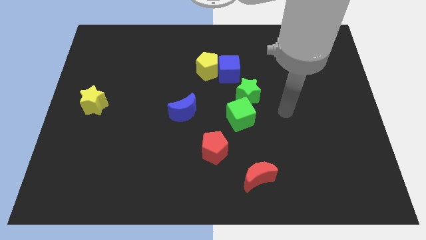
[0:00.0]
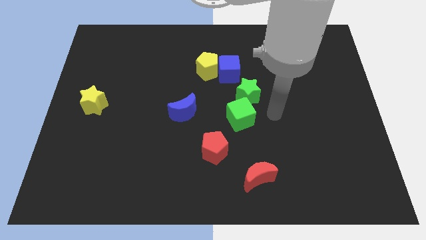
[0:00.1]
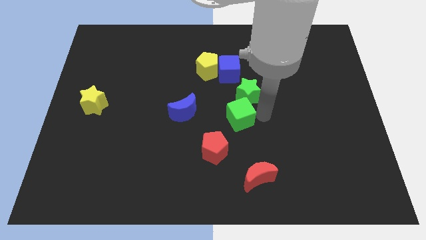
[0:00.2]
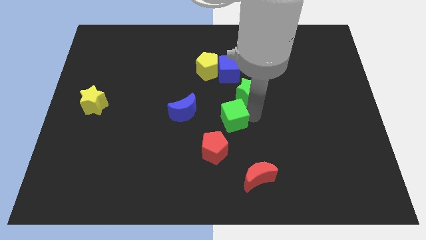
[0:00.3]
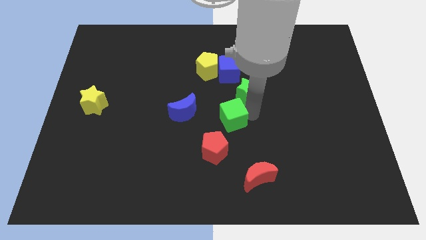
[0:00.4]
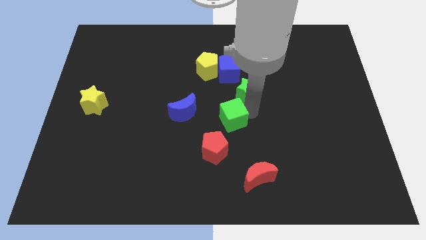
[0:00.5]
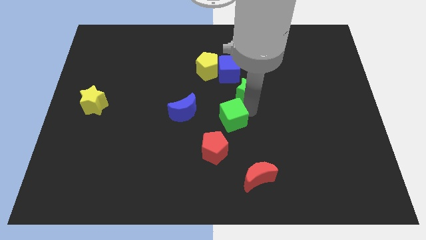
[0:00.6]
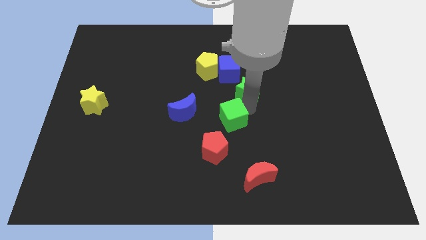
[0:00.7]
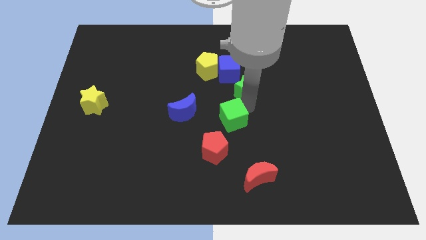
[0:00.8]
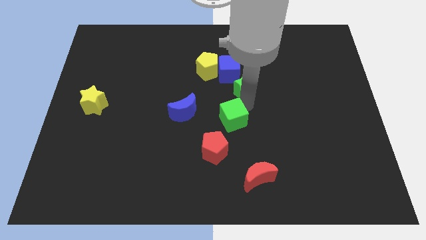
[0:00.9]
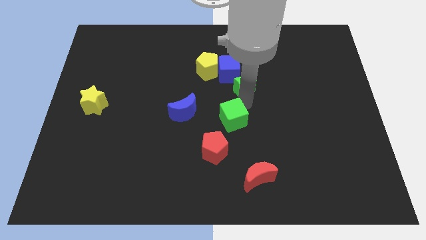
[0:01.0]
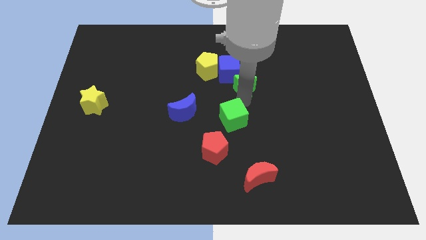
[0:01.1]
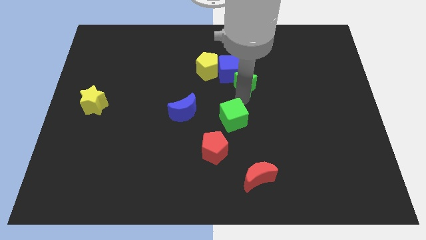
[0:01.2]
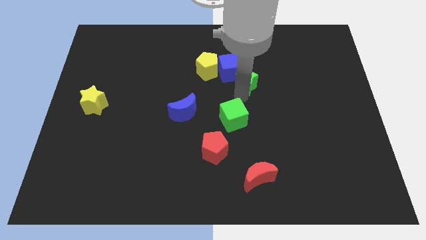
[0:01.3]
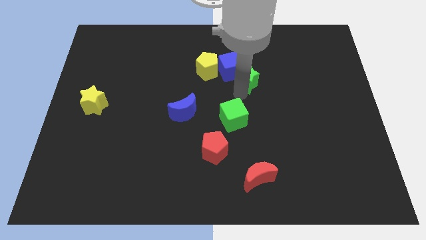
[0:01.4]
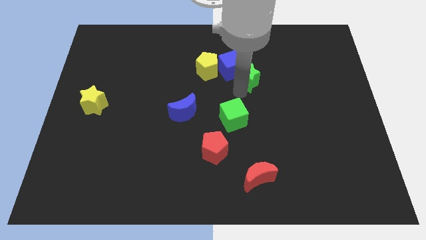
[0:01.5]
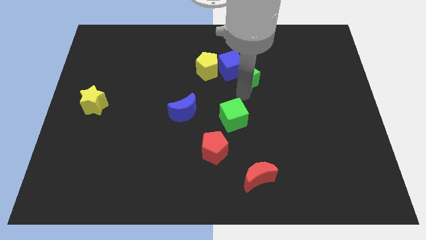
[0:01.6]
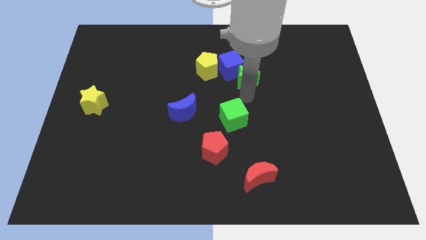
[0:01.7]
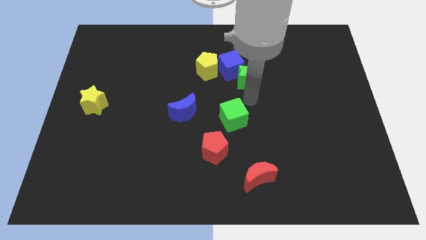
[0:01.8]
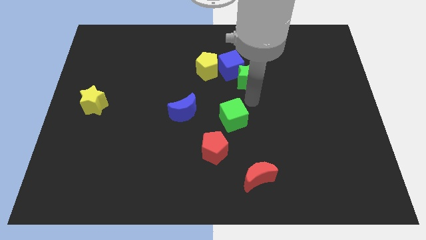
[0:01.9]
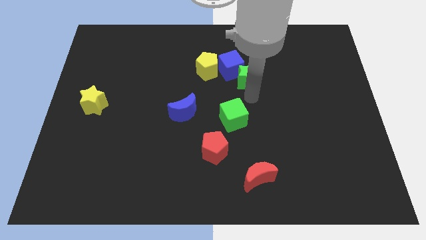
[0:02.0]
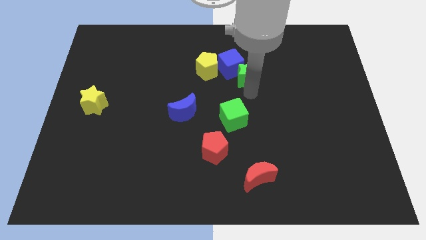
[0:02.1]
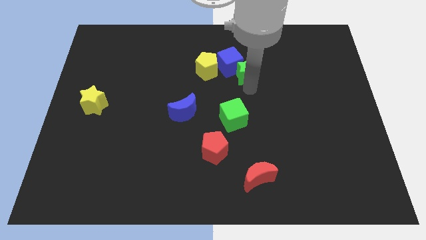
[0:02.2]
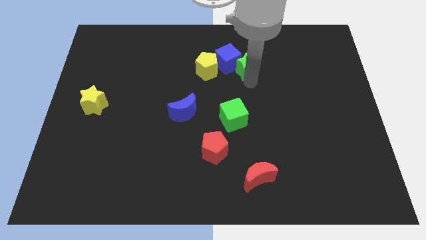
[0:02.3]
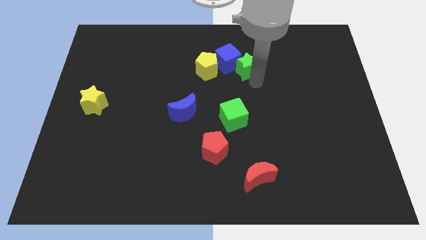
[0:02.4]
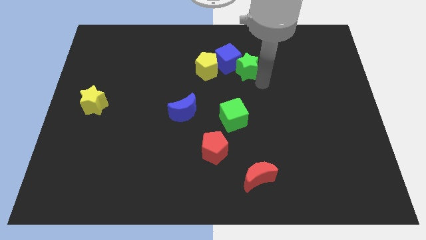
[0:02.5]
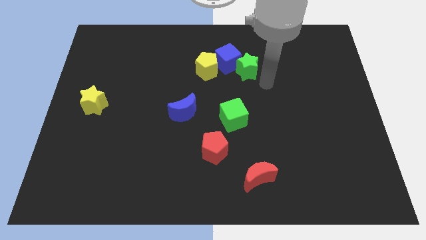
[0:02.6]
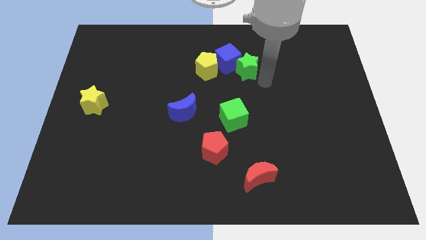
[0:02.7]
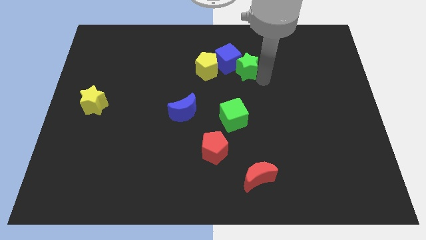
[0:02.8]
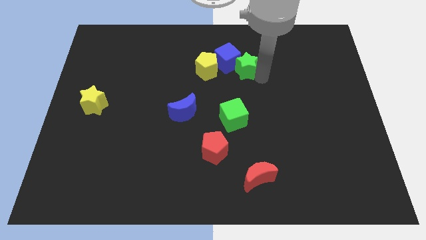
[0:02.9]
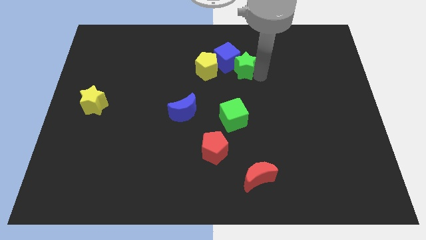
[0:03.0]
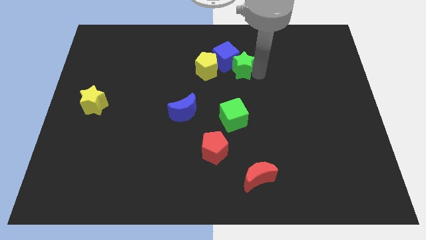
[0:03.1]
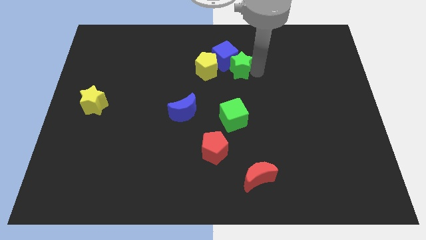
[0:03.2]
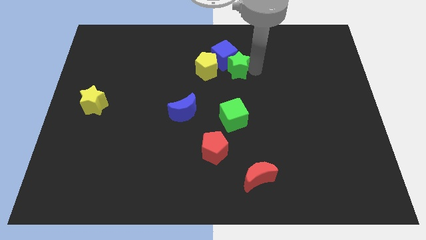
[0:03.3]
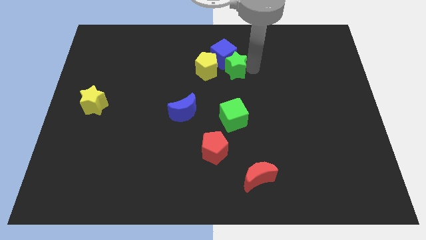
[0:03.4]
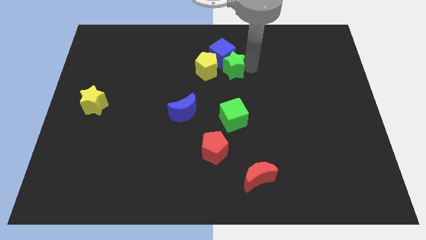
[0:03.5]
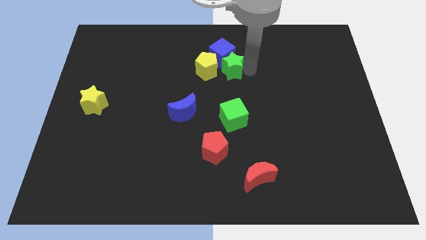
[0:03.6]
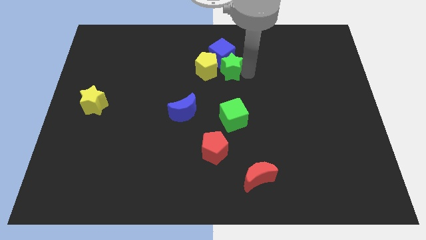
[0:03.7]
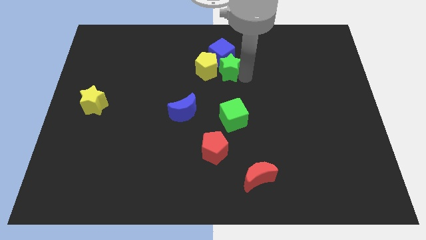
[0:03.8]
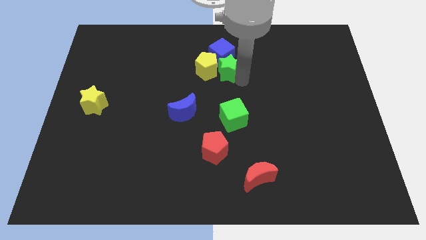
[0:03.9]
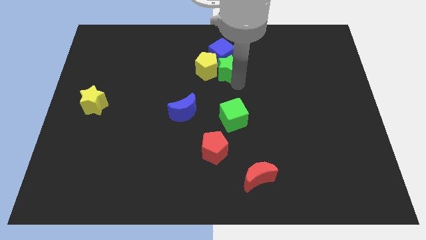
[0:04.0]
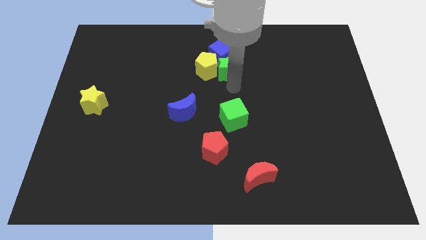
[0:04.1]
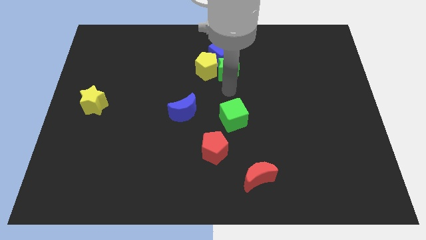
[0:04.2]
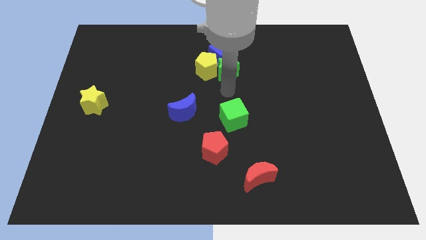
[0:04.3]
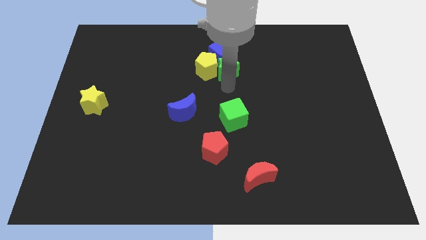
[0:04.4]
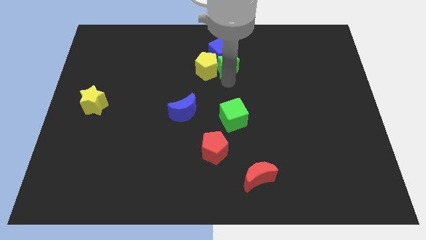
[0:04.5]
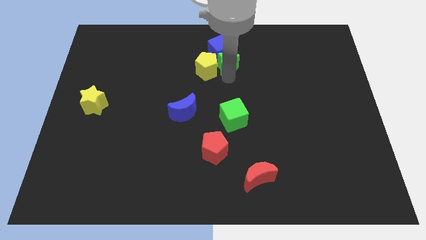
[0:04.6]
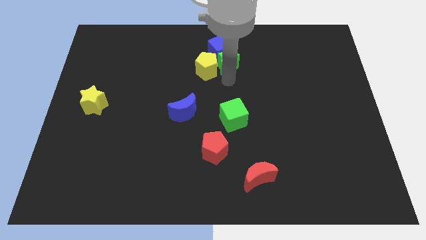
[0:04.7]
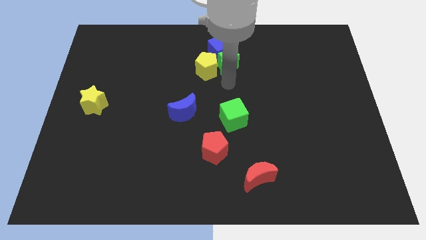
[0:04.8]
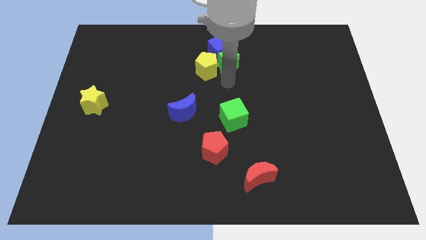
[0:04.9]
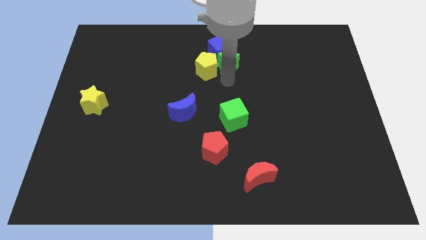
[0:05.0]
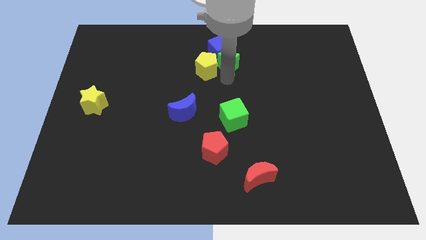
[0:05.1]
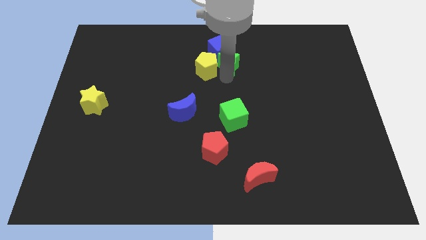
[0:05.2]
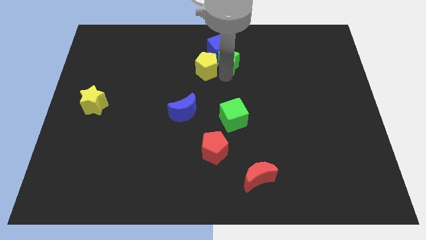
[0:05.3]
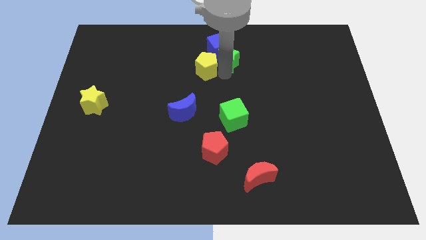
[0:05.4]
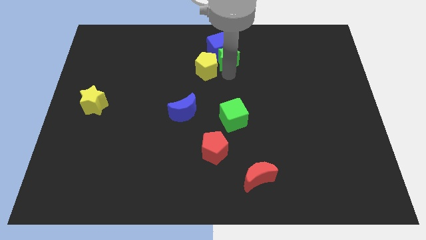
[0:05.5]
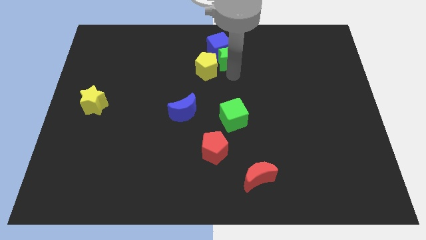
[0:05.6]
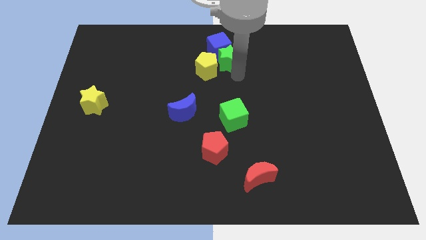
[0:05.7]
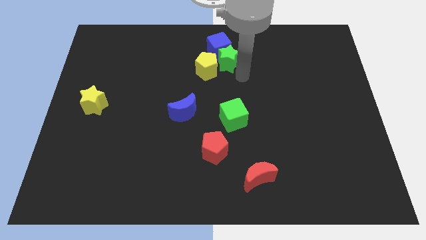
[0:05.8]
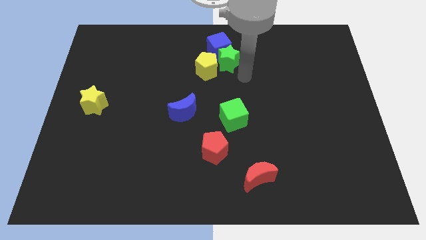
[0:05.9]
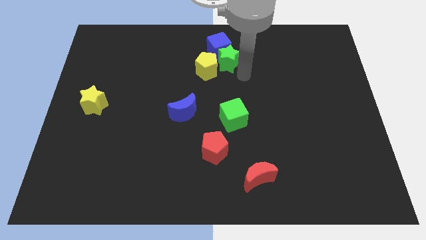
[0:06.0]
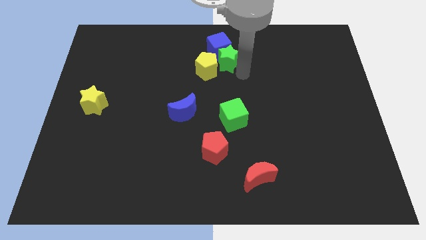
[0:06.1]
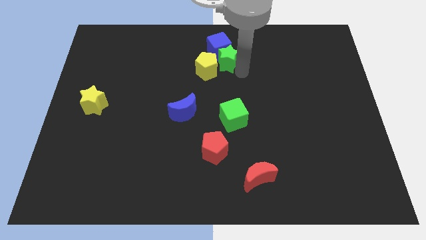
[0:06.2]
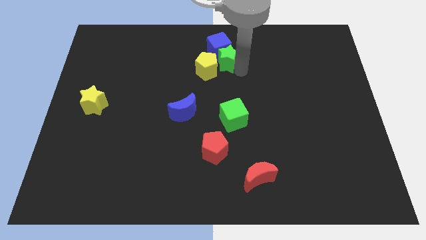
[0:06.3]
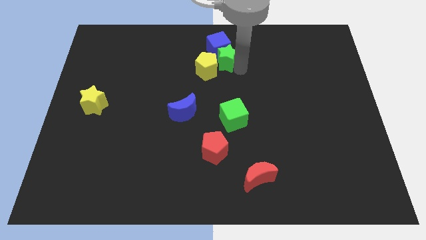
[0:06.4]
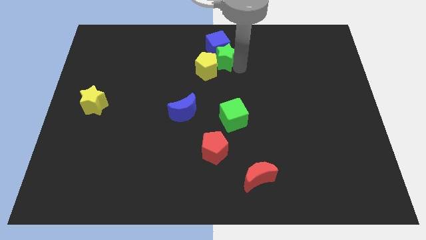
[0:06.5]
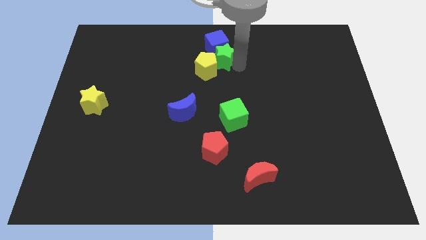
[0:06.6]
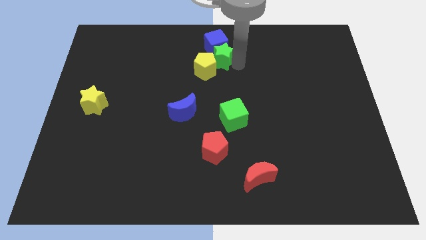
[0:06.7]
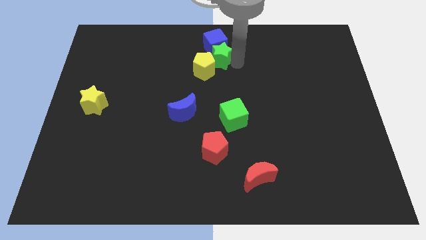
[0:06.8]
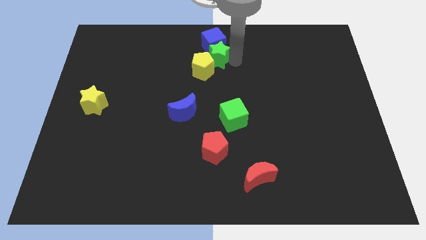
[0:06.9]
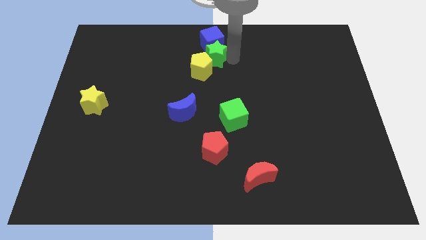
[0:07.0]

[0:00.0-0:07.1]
push the green star to the top side

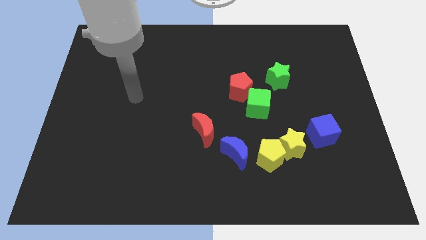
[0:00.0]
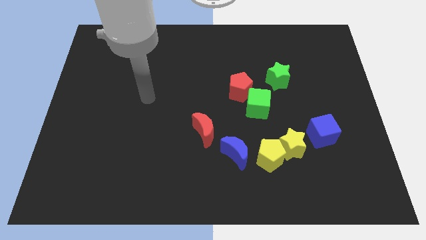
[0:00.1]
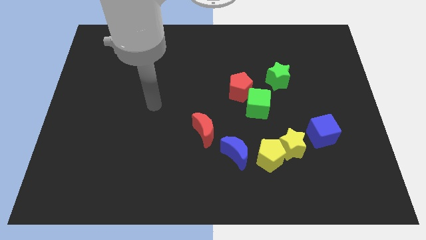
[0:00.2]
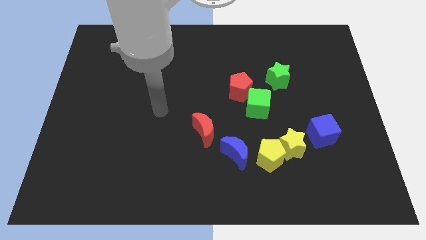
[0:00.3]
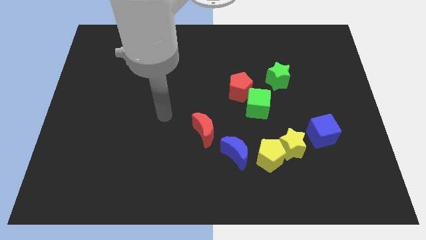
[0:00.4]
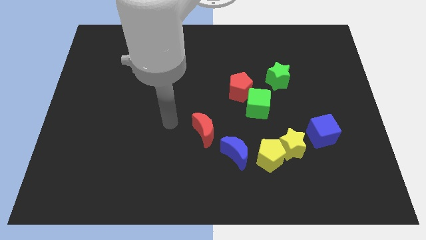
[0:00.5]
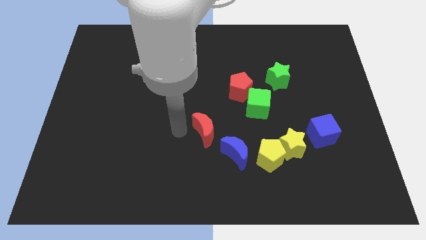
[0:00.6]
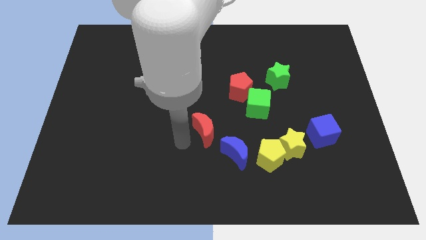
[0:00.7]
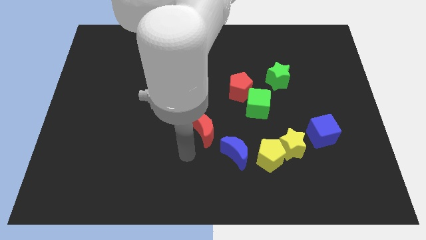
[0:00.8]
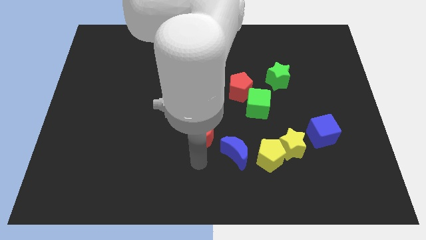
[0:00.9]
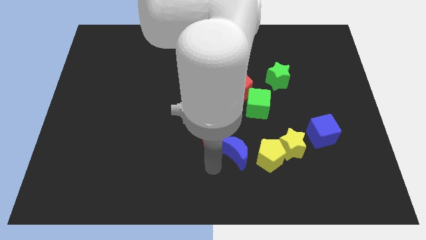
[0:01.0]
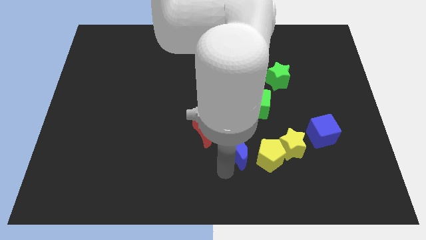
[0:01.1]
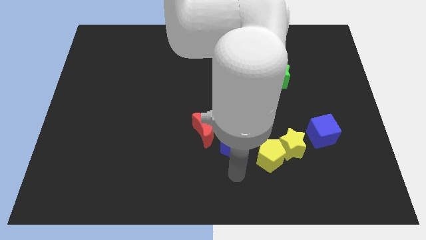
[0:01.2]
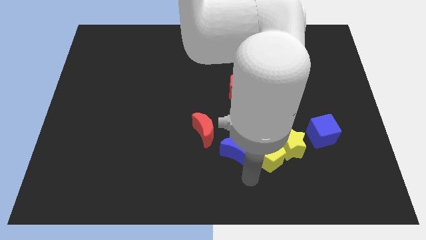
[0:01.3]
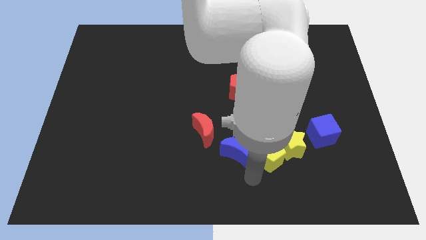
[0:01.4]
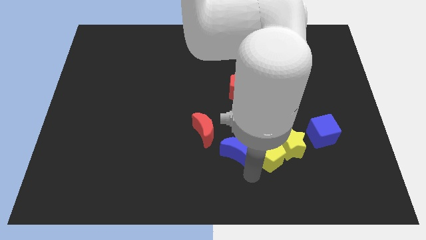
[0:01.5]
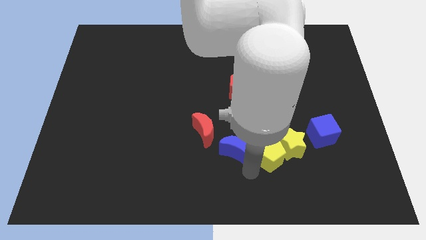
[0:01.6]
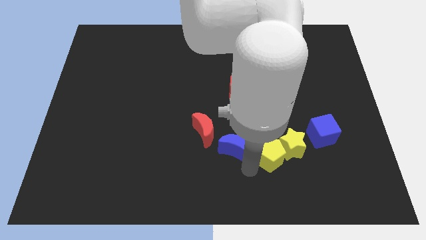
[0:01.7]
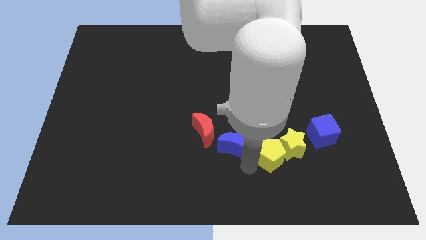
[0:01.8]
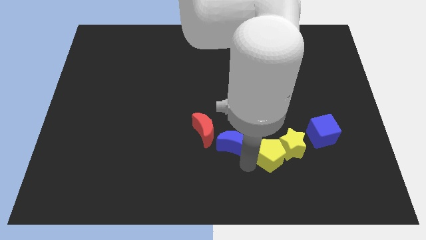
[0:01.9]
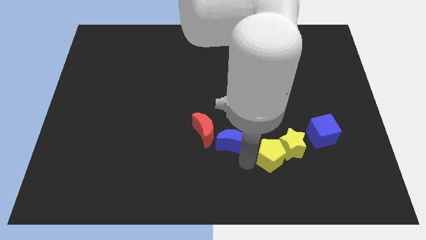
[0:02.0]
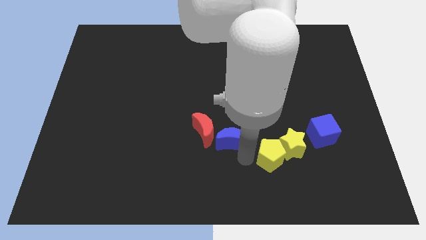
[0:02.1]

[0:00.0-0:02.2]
move the blue moon to the center of the board
